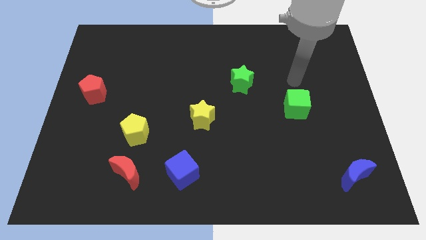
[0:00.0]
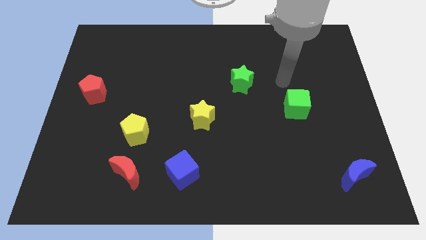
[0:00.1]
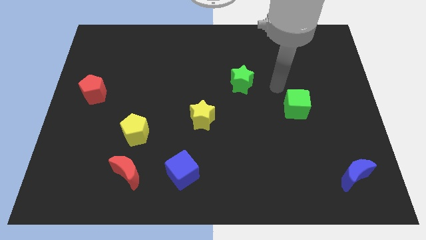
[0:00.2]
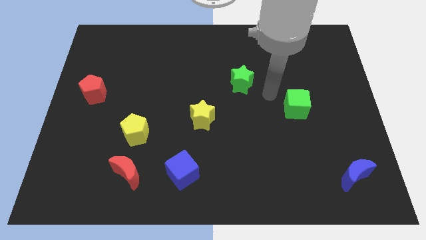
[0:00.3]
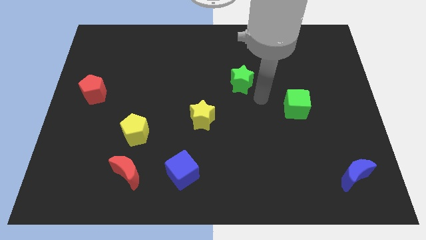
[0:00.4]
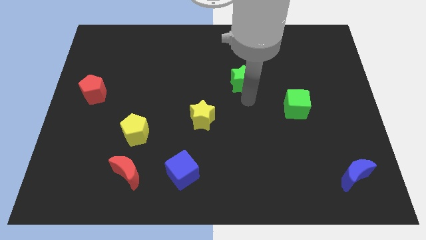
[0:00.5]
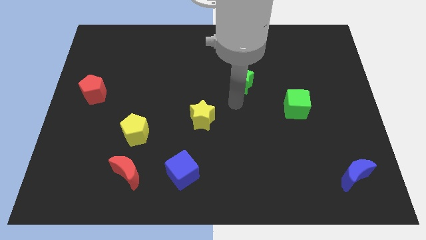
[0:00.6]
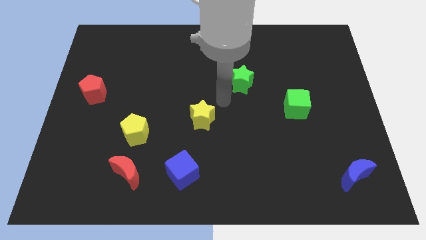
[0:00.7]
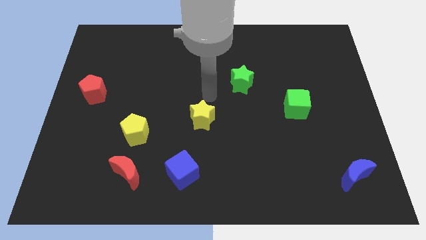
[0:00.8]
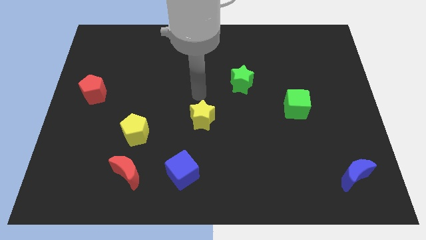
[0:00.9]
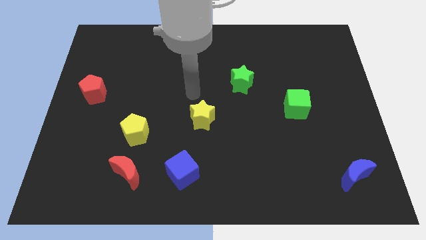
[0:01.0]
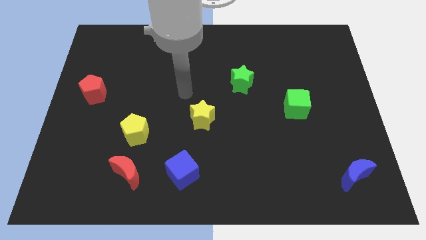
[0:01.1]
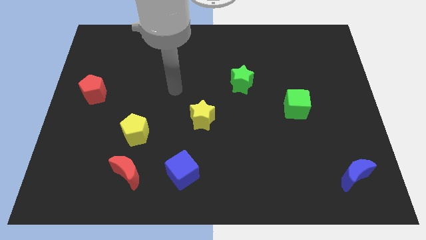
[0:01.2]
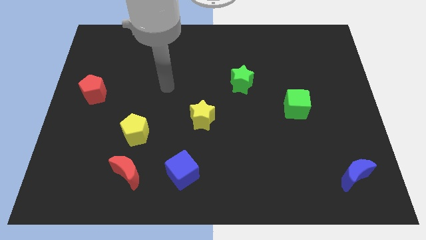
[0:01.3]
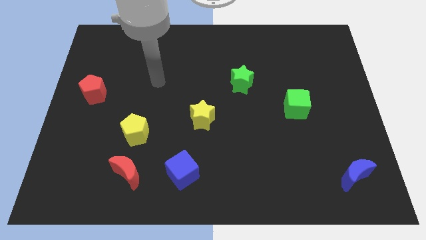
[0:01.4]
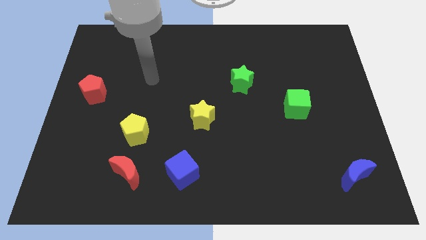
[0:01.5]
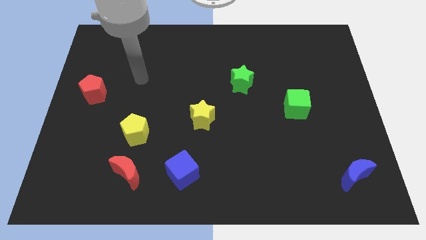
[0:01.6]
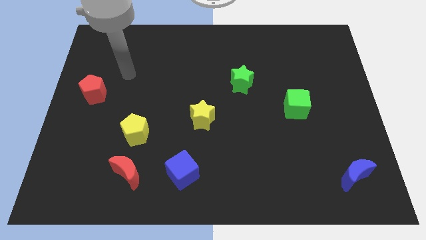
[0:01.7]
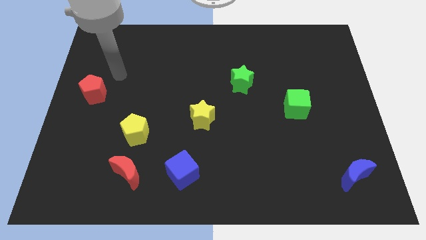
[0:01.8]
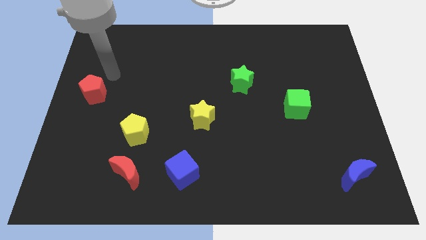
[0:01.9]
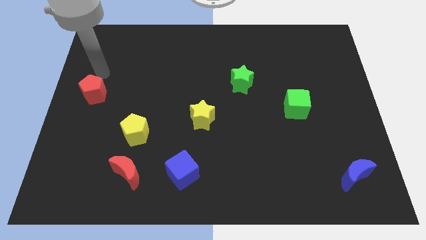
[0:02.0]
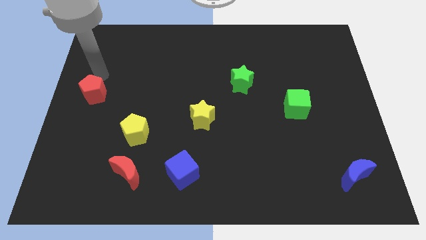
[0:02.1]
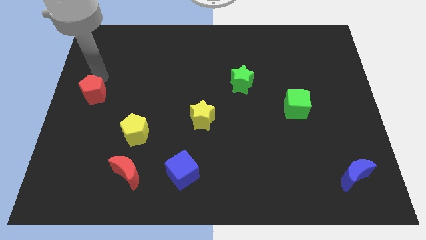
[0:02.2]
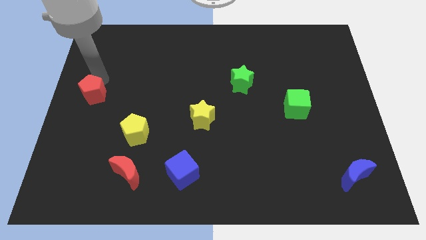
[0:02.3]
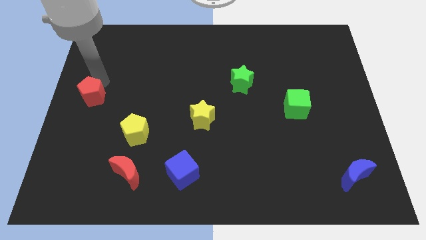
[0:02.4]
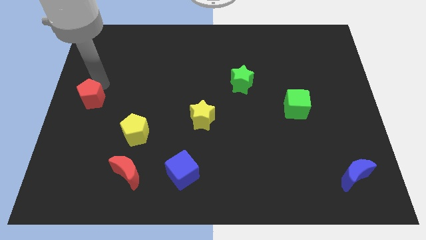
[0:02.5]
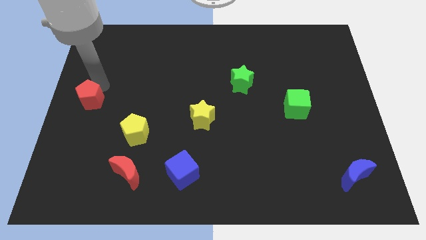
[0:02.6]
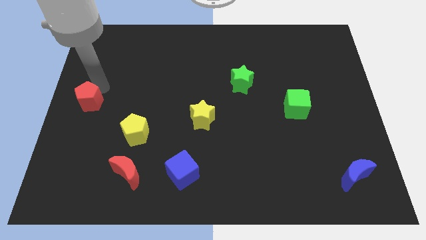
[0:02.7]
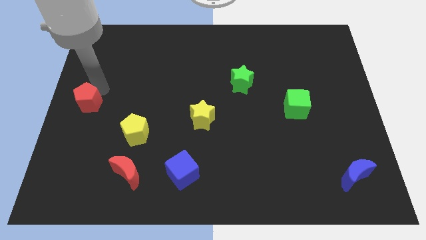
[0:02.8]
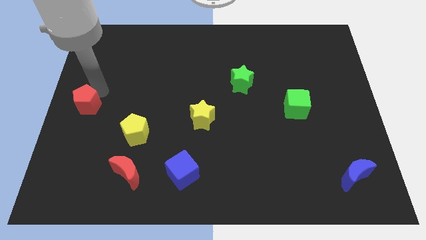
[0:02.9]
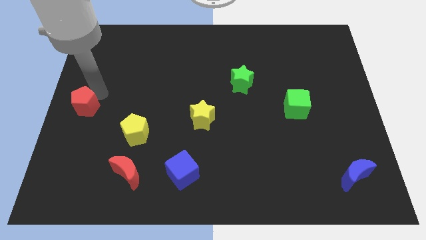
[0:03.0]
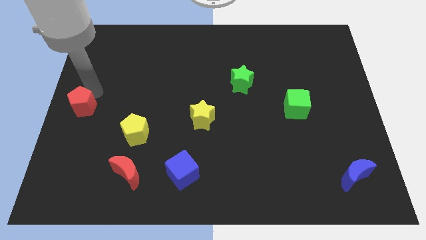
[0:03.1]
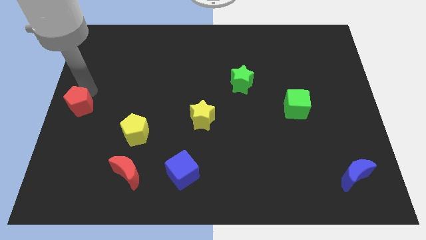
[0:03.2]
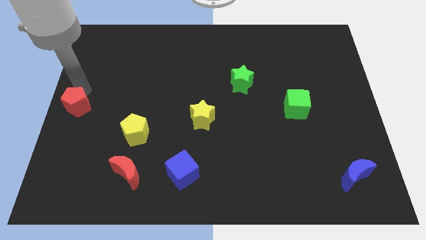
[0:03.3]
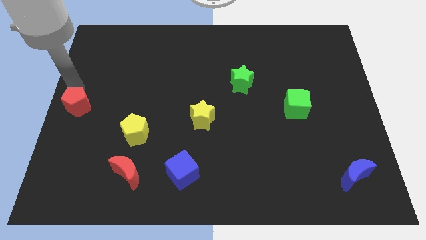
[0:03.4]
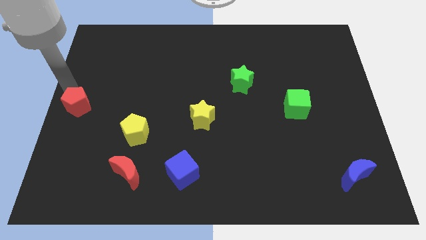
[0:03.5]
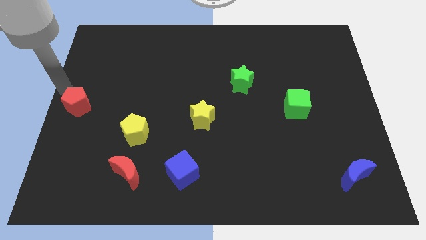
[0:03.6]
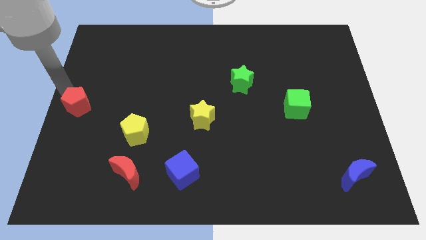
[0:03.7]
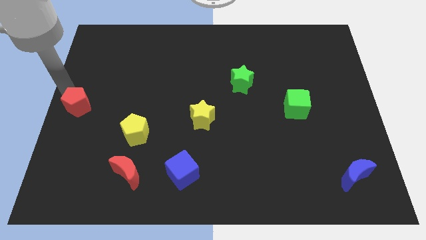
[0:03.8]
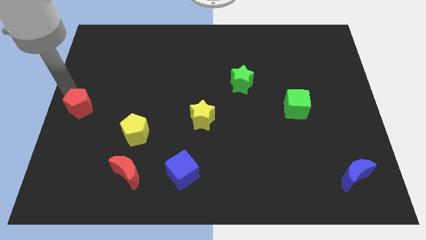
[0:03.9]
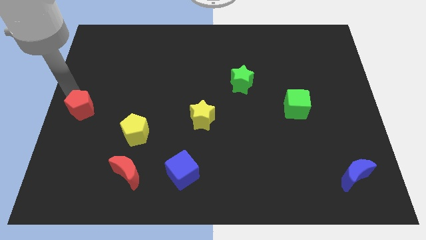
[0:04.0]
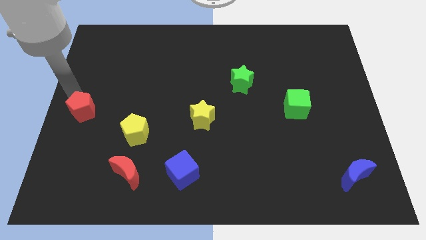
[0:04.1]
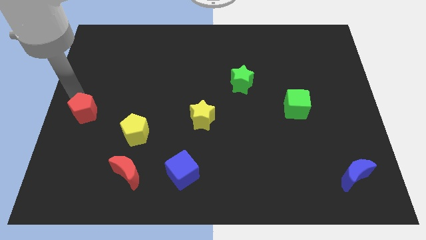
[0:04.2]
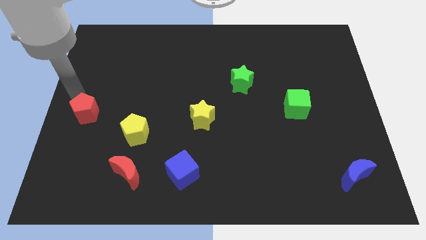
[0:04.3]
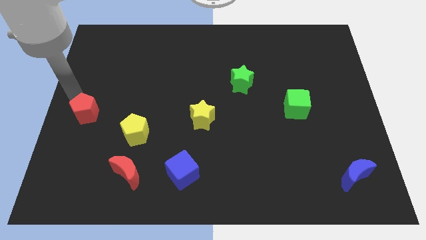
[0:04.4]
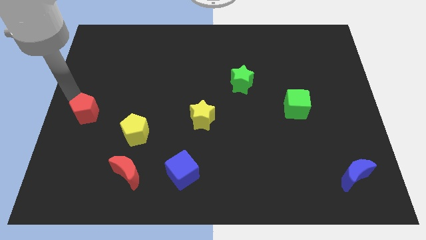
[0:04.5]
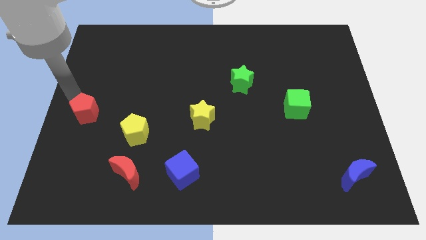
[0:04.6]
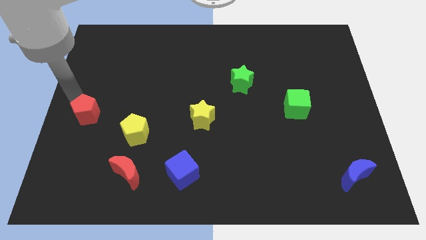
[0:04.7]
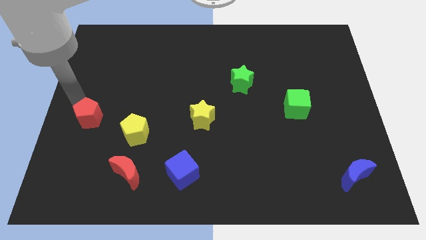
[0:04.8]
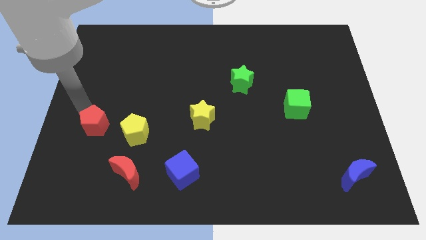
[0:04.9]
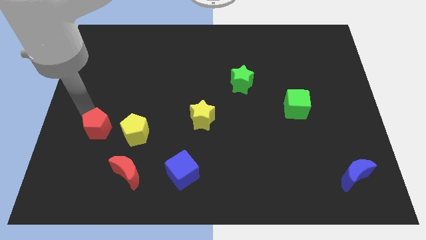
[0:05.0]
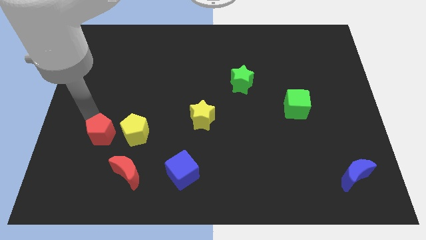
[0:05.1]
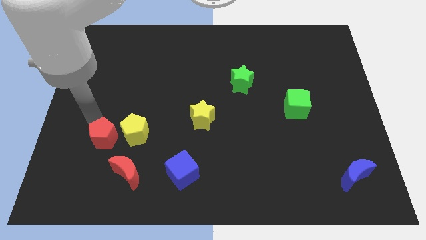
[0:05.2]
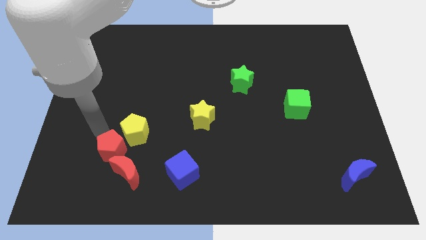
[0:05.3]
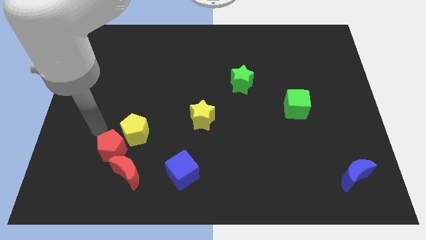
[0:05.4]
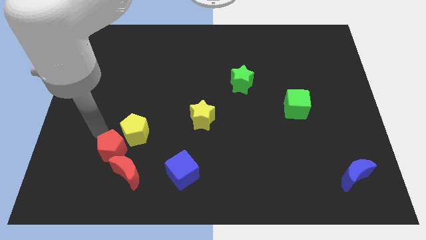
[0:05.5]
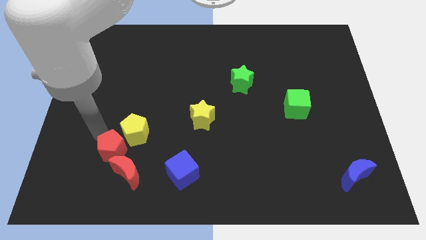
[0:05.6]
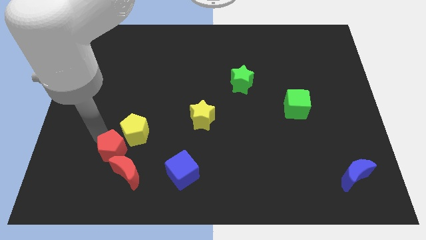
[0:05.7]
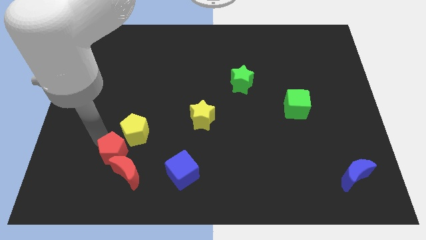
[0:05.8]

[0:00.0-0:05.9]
slide the red pentagon to the red moon

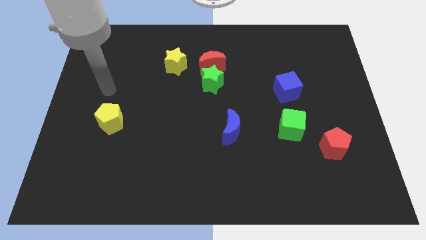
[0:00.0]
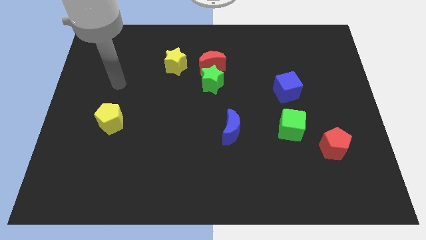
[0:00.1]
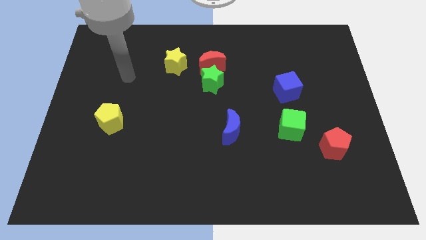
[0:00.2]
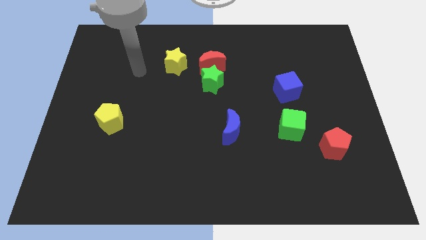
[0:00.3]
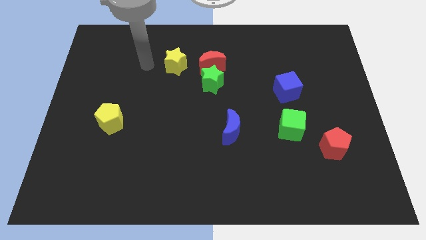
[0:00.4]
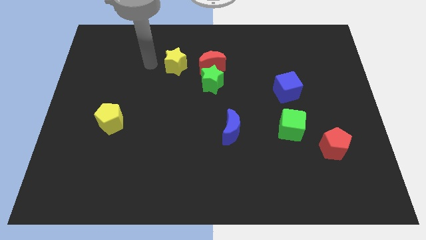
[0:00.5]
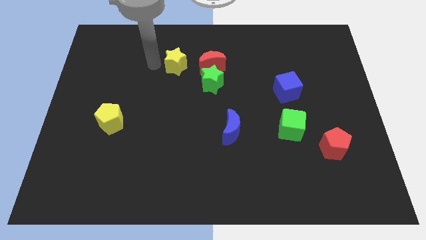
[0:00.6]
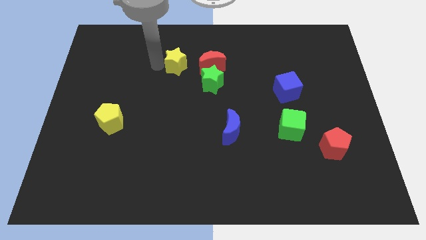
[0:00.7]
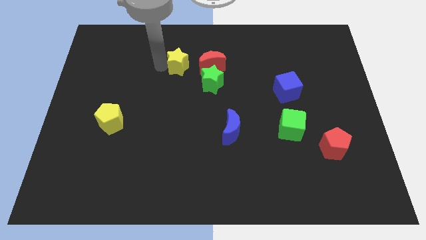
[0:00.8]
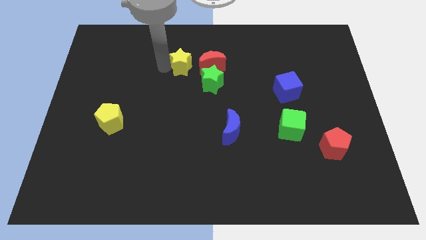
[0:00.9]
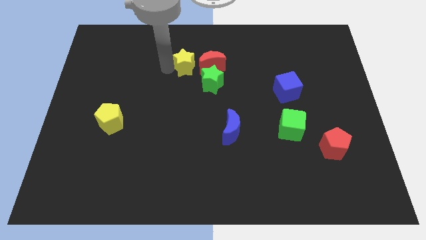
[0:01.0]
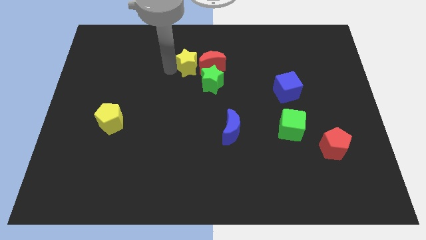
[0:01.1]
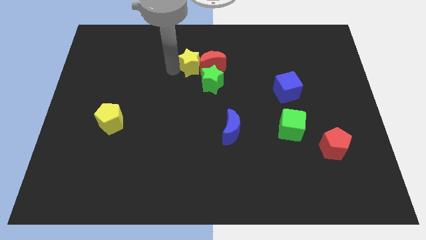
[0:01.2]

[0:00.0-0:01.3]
move the yellow star towards the red moon

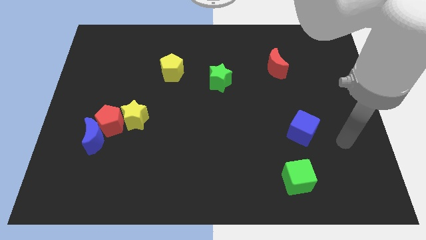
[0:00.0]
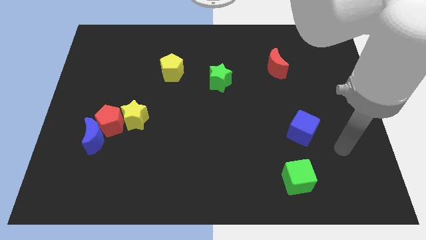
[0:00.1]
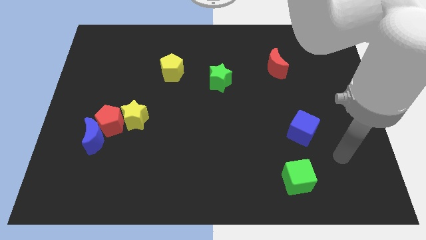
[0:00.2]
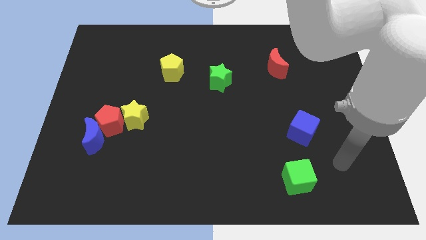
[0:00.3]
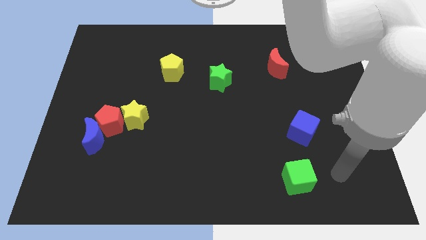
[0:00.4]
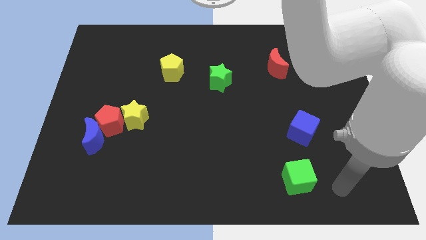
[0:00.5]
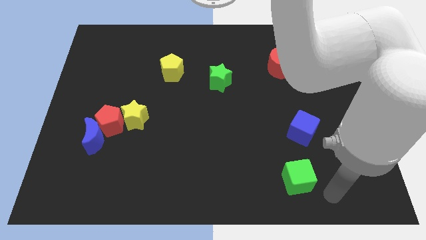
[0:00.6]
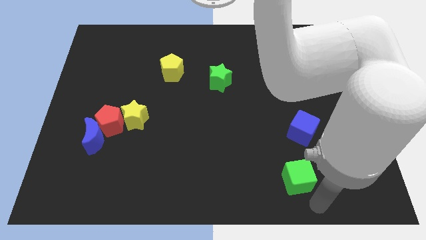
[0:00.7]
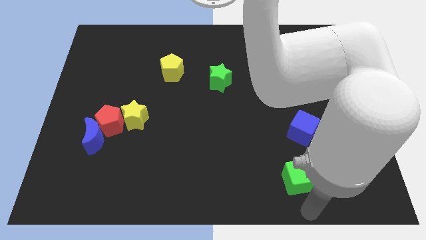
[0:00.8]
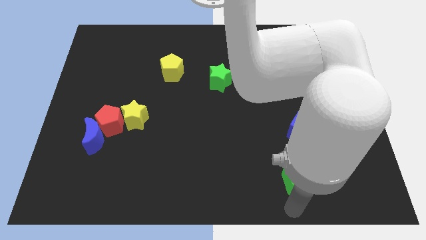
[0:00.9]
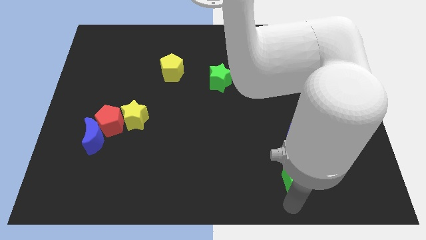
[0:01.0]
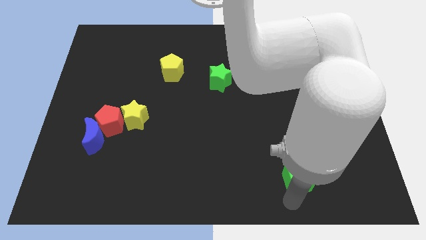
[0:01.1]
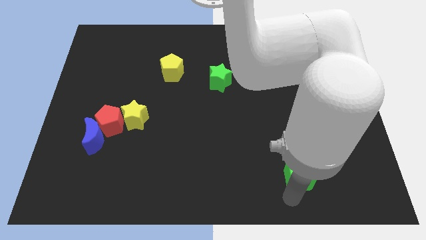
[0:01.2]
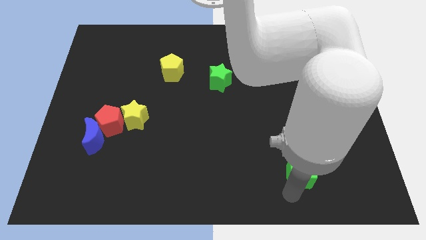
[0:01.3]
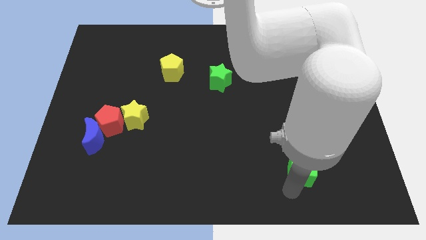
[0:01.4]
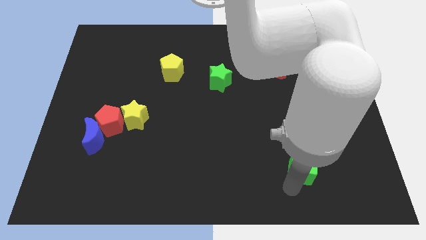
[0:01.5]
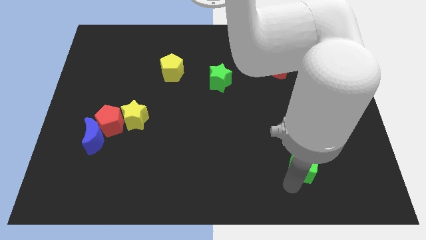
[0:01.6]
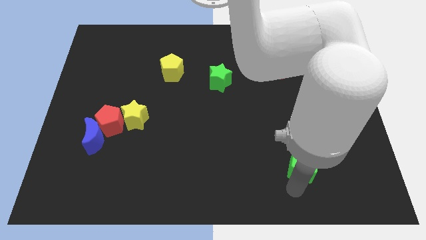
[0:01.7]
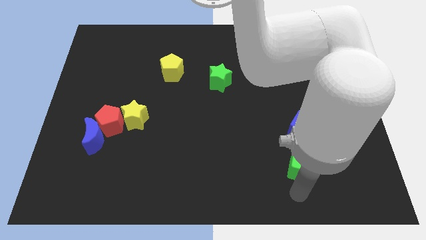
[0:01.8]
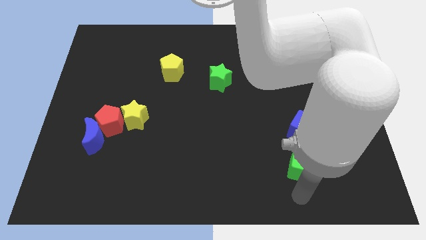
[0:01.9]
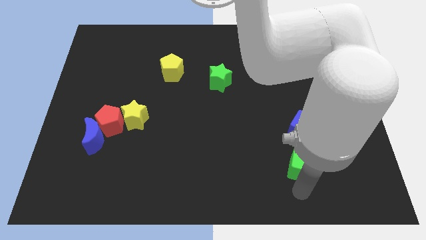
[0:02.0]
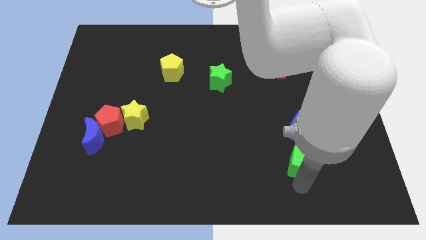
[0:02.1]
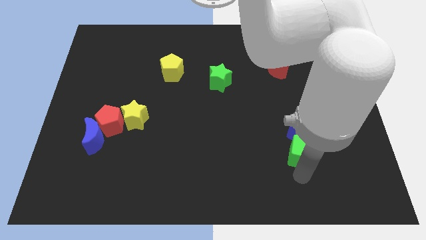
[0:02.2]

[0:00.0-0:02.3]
push the green cube next to the blue cube
